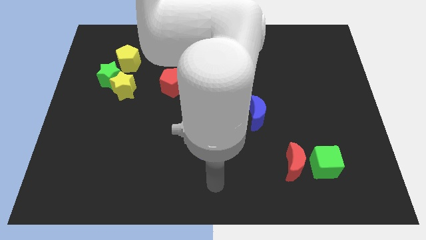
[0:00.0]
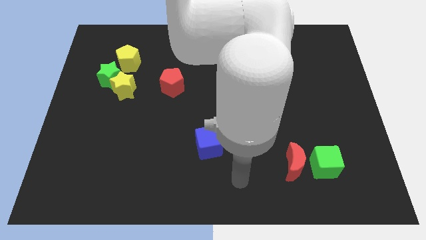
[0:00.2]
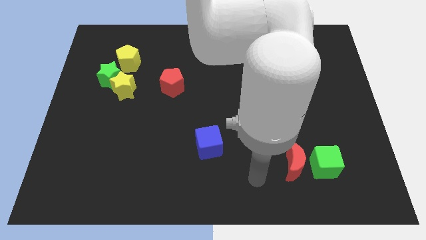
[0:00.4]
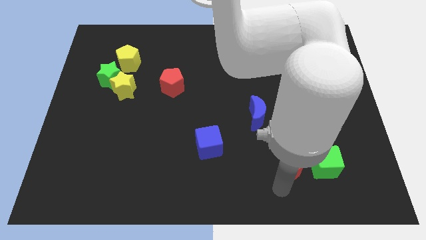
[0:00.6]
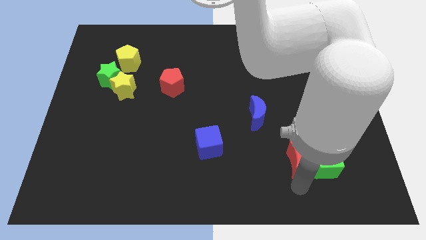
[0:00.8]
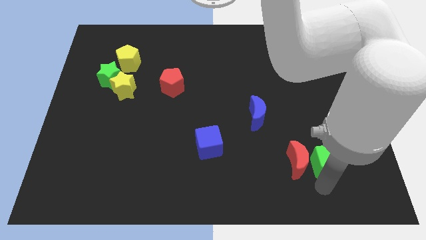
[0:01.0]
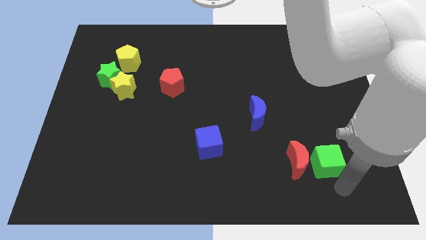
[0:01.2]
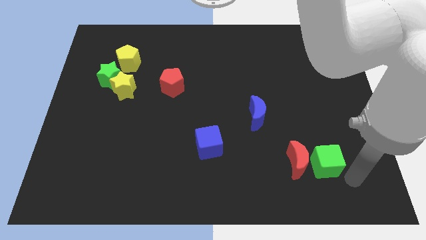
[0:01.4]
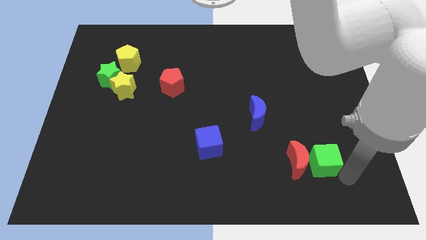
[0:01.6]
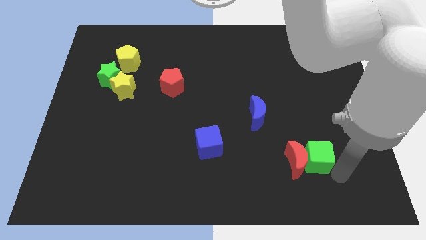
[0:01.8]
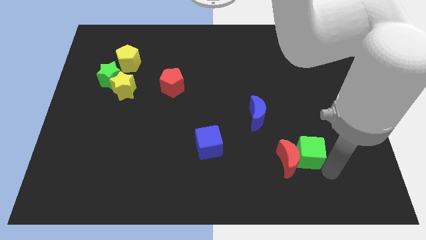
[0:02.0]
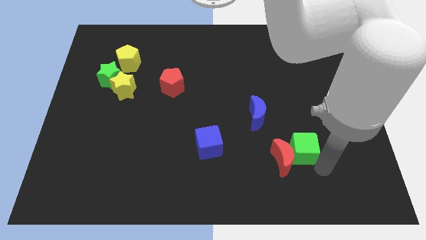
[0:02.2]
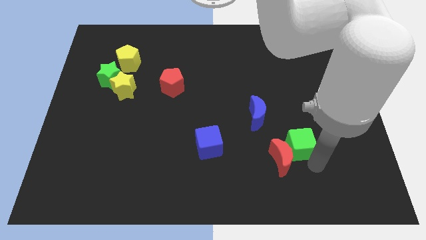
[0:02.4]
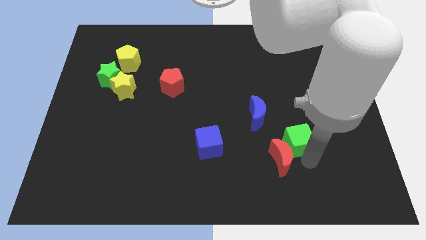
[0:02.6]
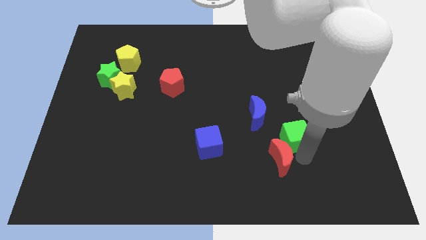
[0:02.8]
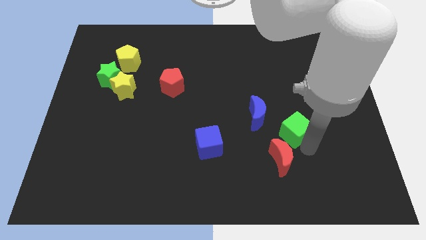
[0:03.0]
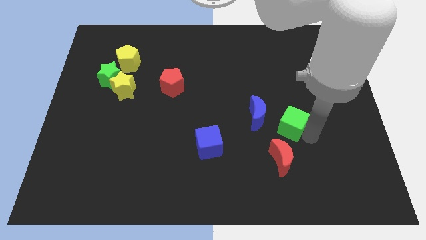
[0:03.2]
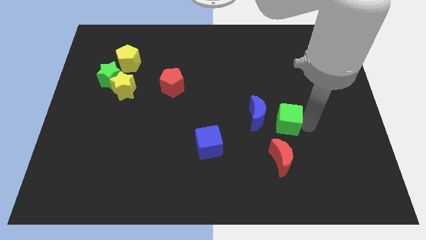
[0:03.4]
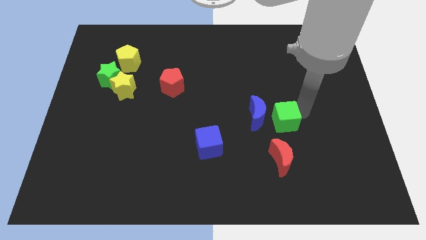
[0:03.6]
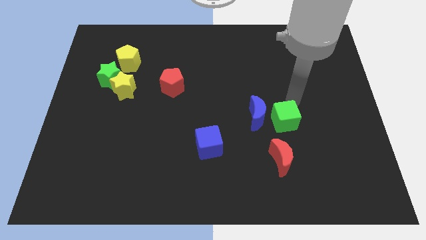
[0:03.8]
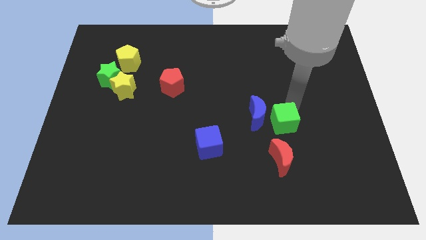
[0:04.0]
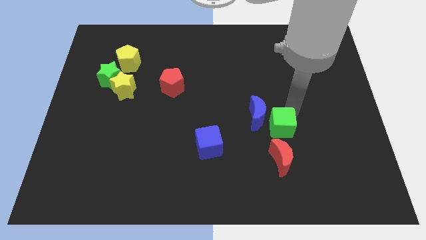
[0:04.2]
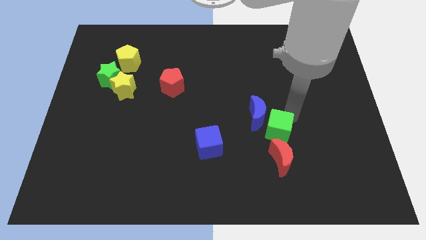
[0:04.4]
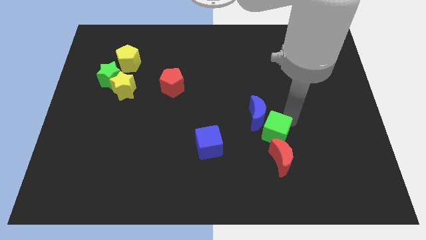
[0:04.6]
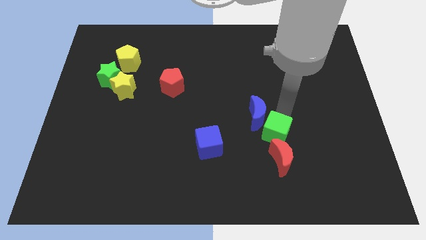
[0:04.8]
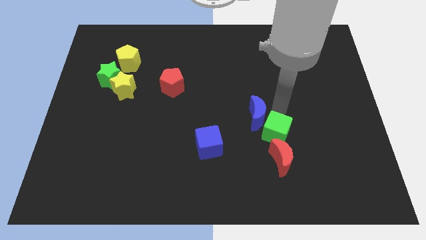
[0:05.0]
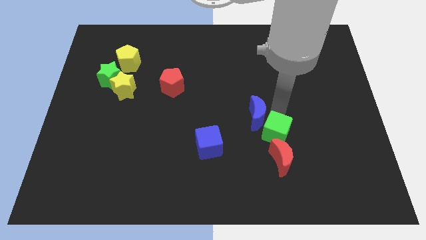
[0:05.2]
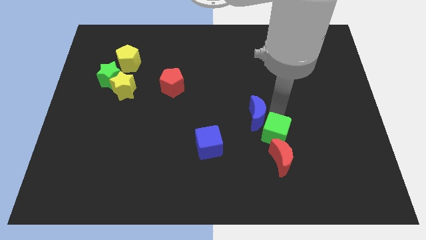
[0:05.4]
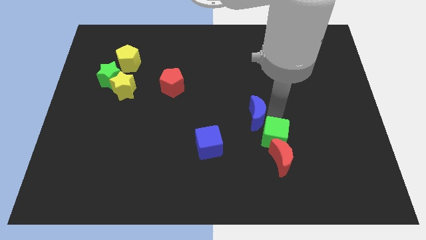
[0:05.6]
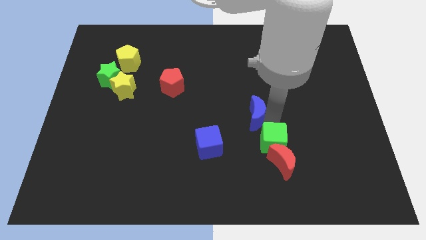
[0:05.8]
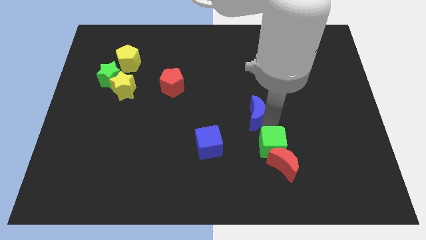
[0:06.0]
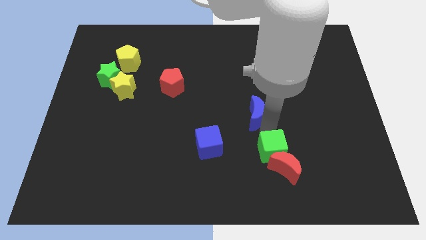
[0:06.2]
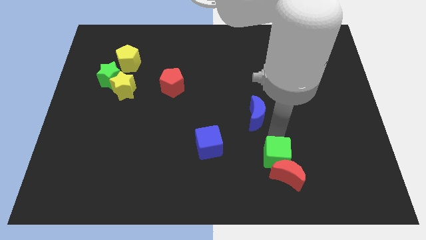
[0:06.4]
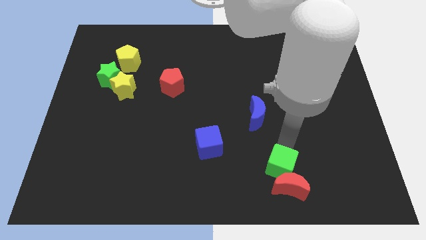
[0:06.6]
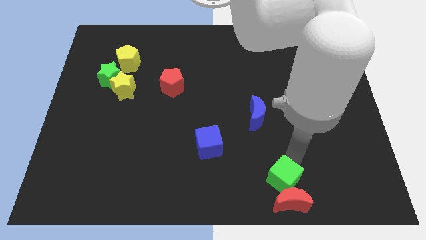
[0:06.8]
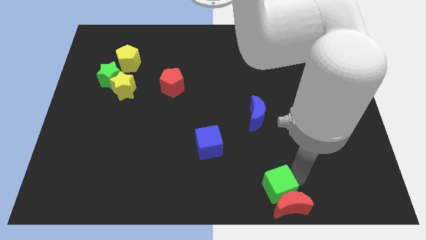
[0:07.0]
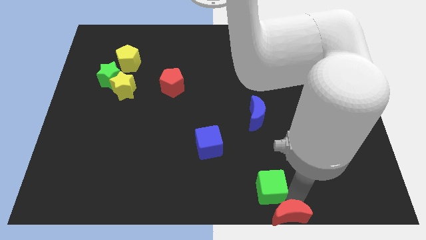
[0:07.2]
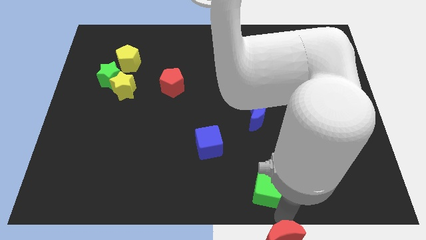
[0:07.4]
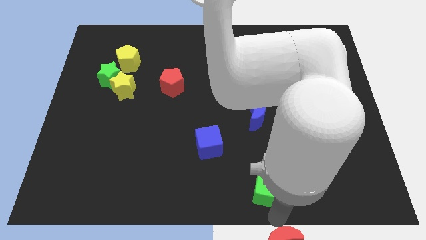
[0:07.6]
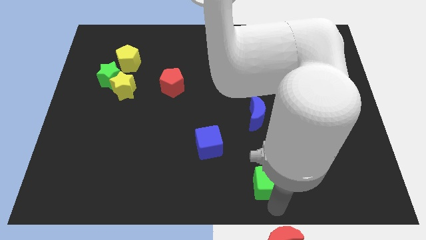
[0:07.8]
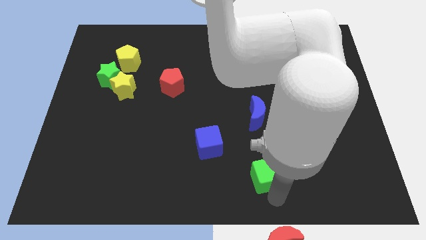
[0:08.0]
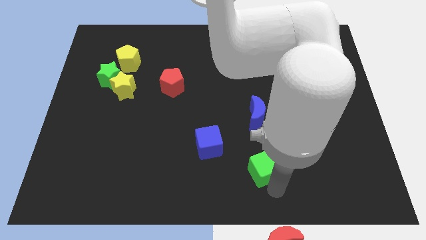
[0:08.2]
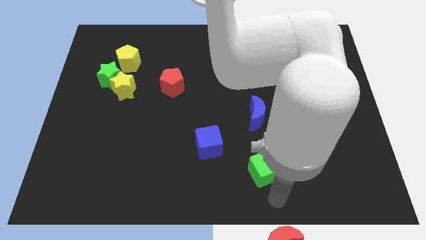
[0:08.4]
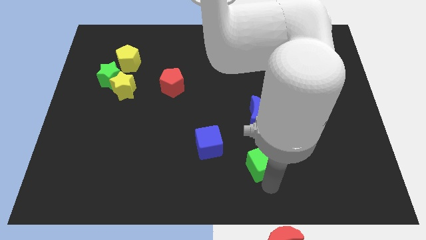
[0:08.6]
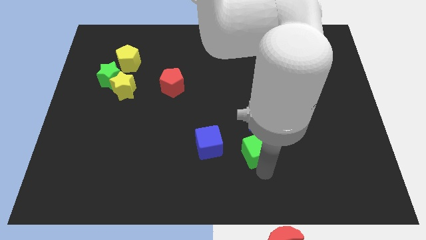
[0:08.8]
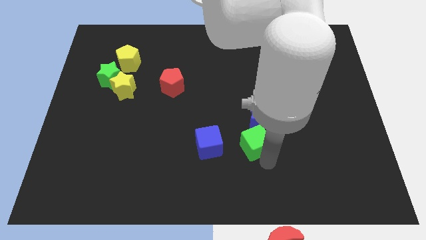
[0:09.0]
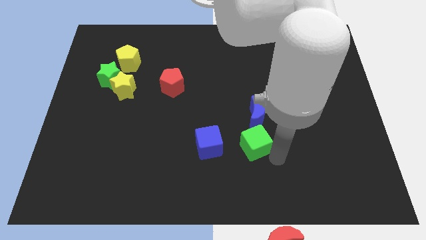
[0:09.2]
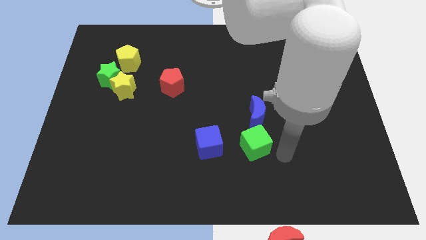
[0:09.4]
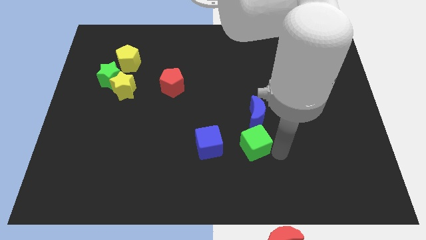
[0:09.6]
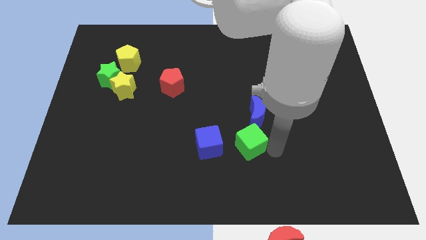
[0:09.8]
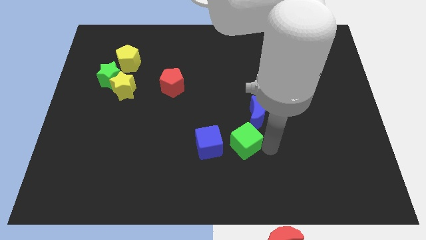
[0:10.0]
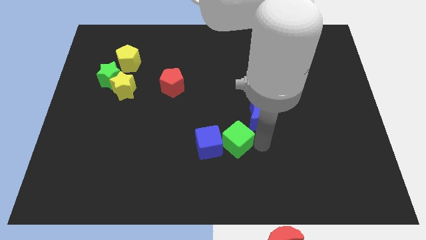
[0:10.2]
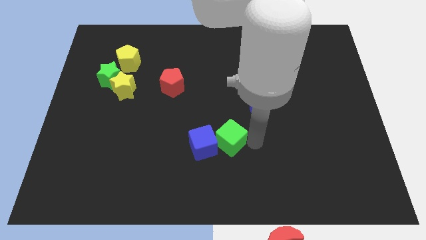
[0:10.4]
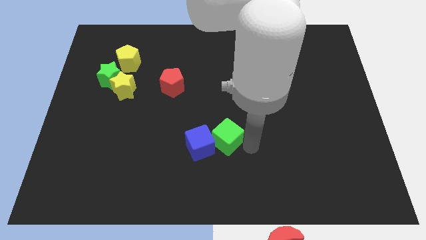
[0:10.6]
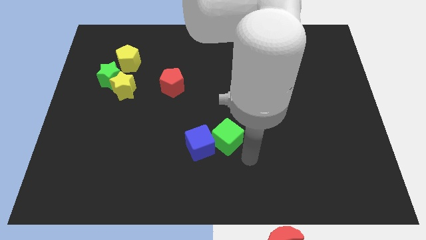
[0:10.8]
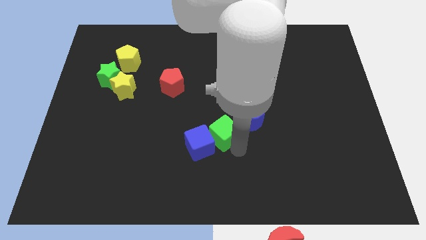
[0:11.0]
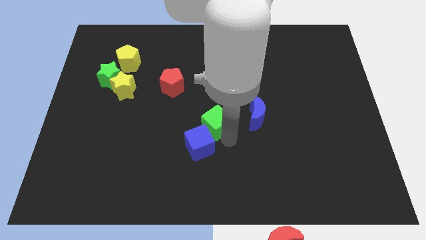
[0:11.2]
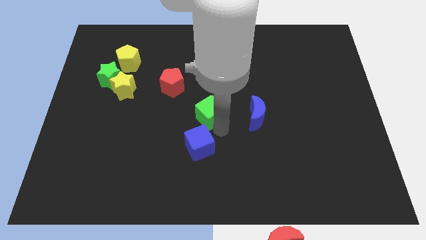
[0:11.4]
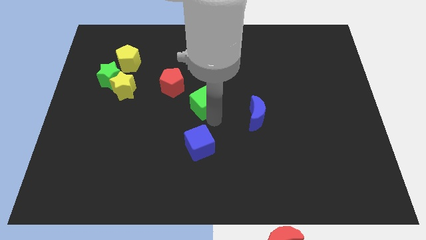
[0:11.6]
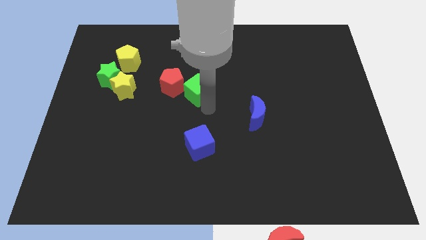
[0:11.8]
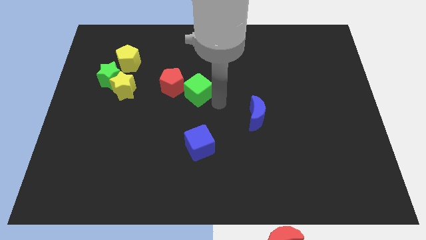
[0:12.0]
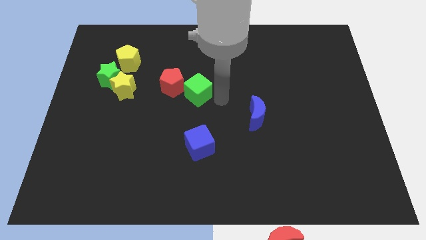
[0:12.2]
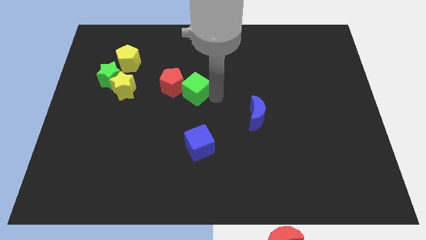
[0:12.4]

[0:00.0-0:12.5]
slide the green cube to the red pentagon

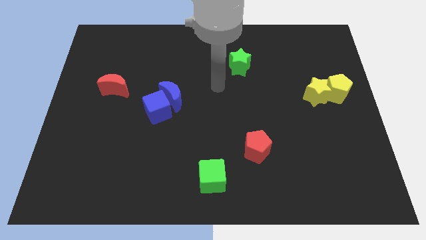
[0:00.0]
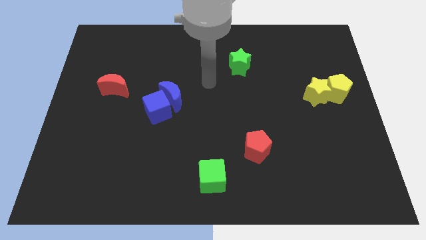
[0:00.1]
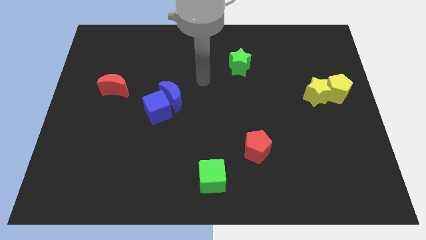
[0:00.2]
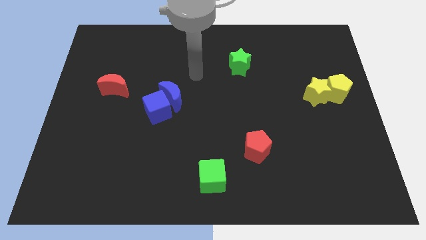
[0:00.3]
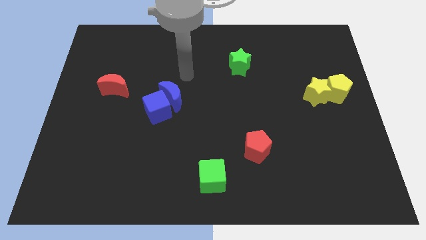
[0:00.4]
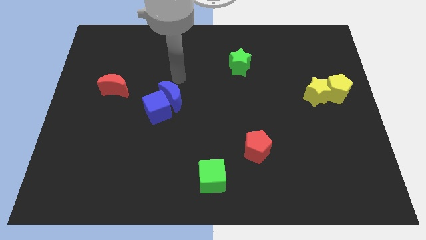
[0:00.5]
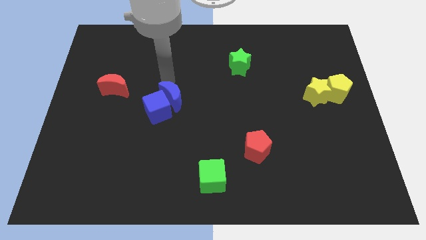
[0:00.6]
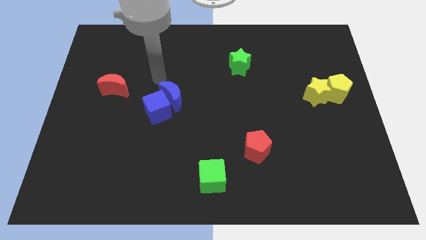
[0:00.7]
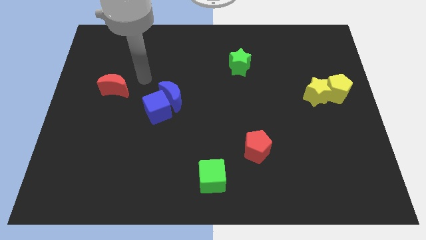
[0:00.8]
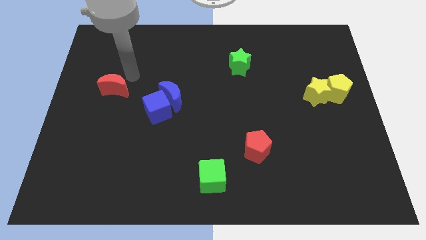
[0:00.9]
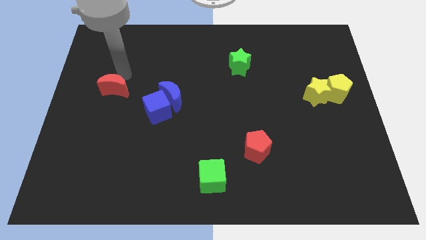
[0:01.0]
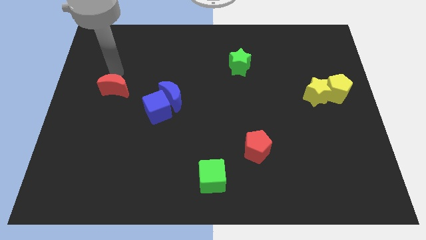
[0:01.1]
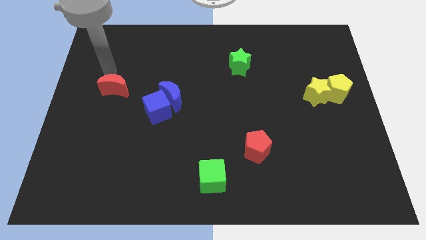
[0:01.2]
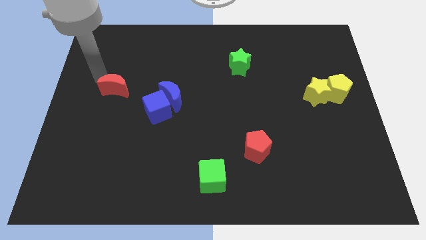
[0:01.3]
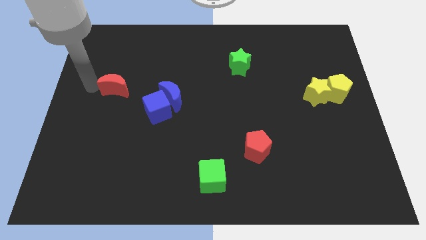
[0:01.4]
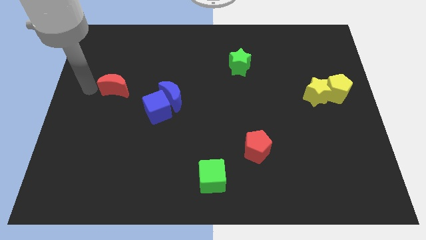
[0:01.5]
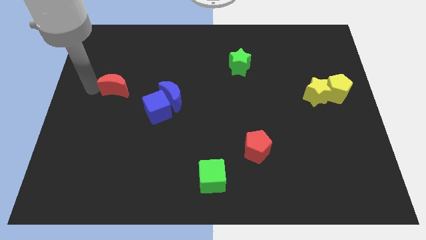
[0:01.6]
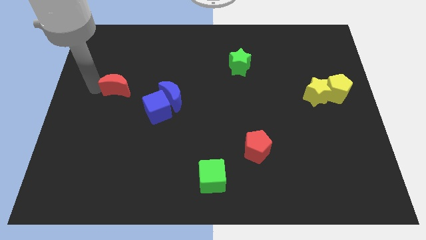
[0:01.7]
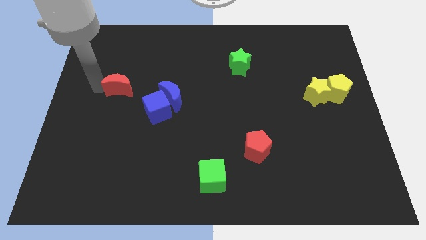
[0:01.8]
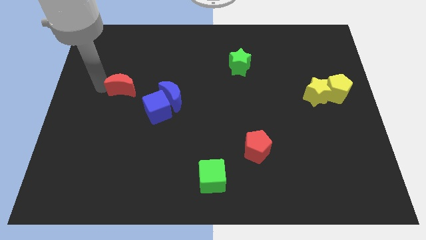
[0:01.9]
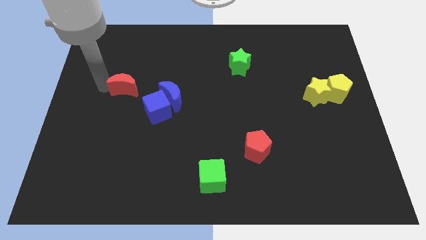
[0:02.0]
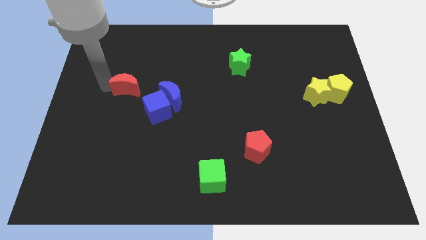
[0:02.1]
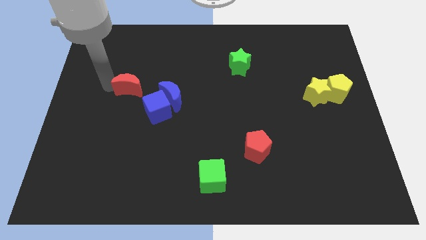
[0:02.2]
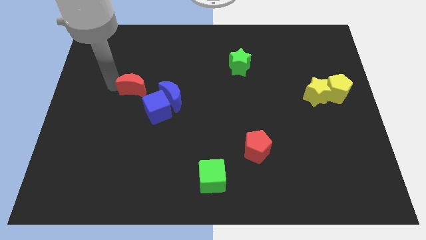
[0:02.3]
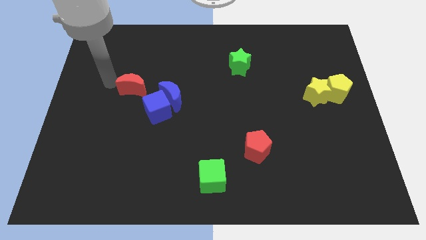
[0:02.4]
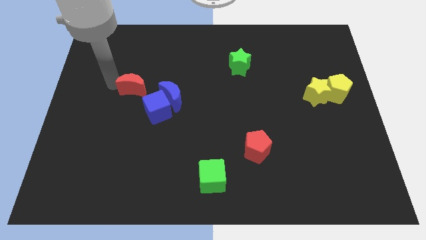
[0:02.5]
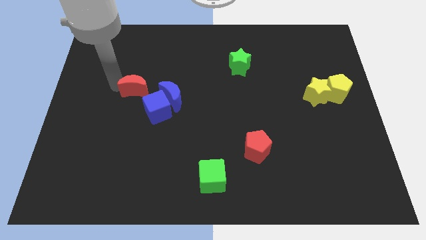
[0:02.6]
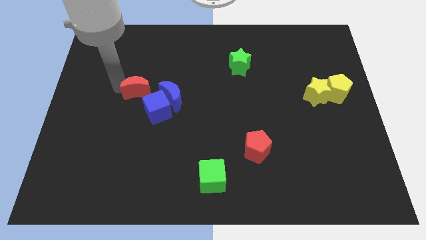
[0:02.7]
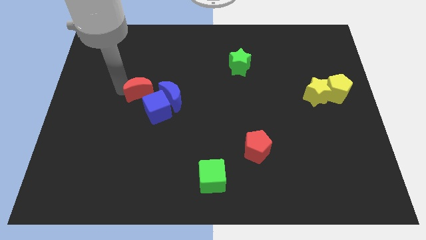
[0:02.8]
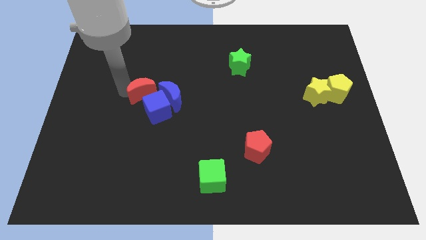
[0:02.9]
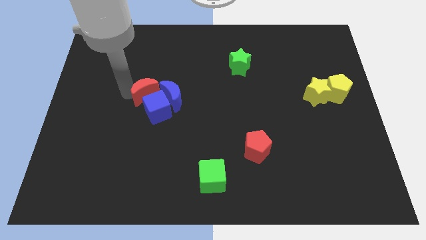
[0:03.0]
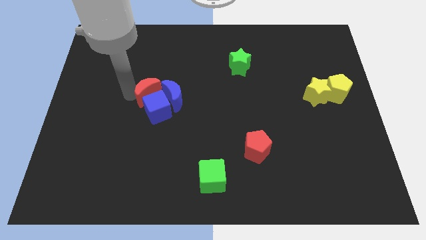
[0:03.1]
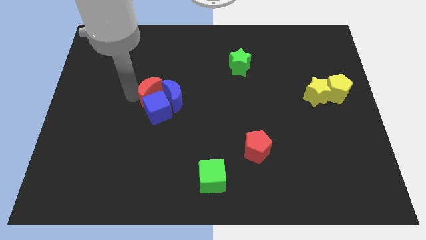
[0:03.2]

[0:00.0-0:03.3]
put the red moon next to the blue moon
